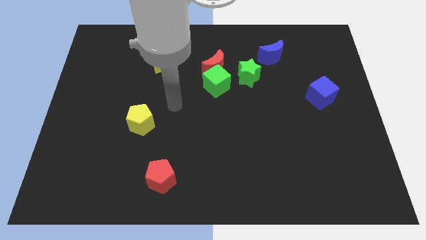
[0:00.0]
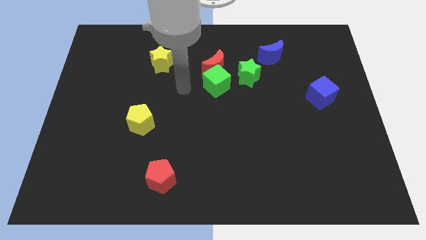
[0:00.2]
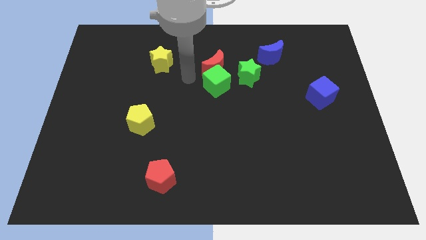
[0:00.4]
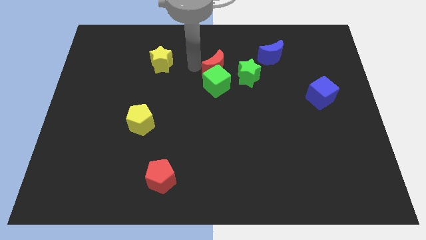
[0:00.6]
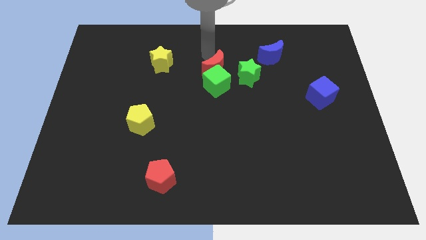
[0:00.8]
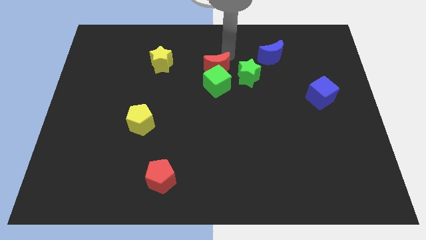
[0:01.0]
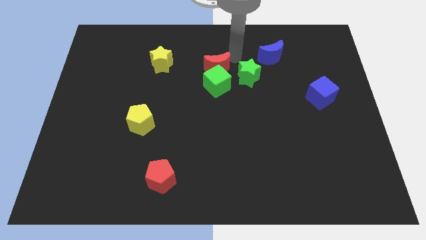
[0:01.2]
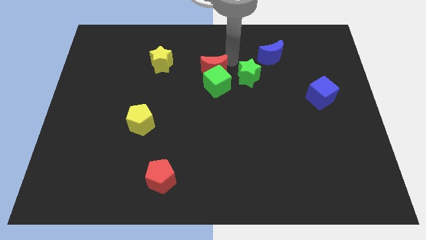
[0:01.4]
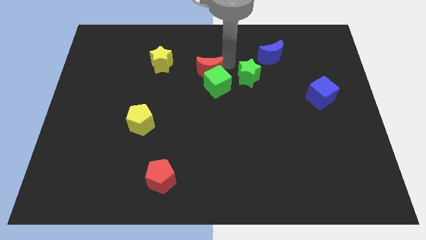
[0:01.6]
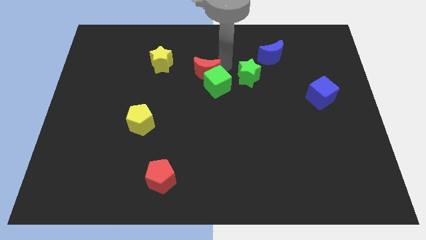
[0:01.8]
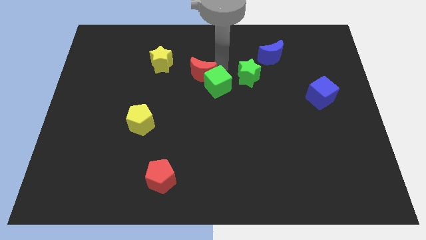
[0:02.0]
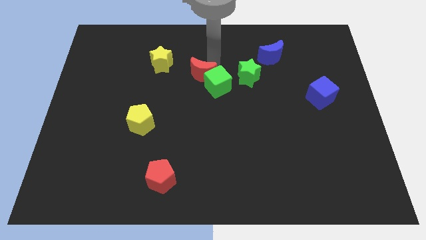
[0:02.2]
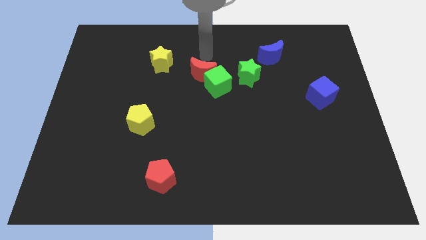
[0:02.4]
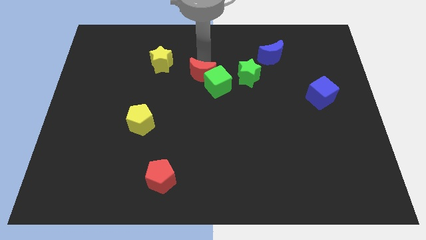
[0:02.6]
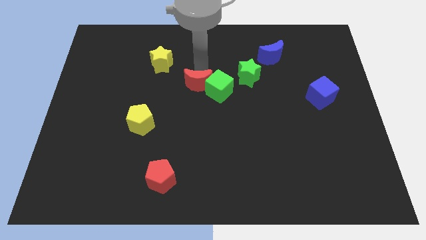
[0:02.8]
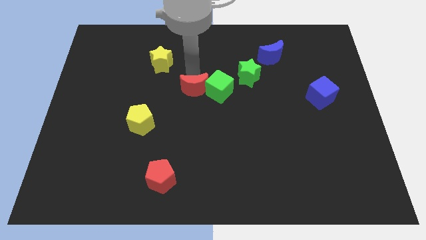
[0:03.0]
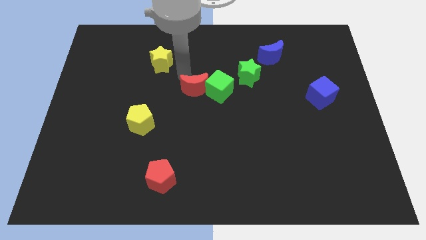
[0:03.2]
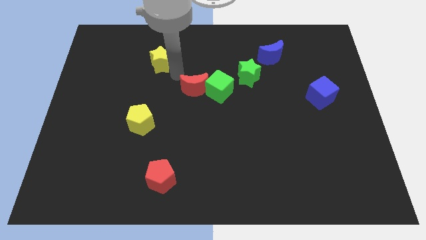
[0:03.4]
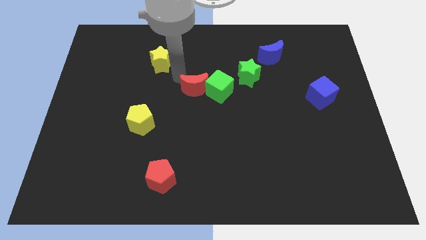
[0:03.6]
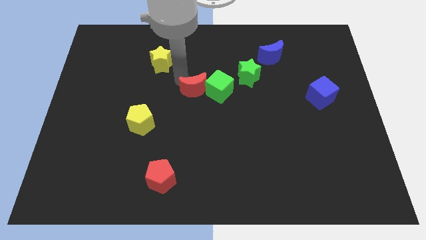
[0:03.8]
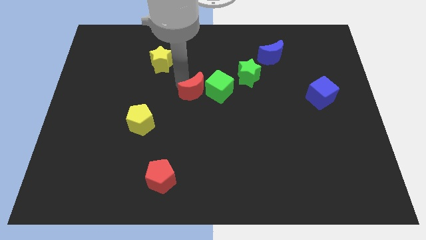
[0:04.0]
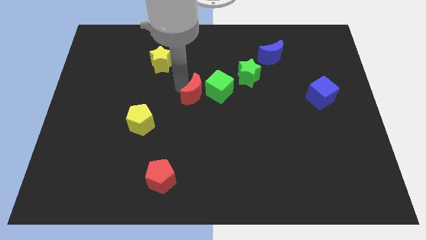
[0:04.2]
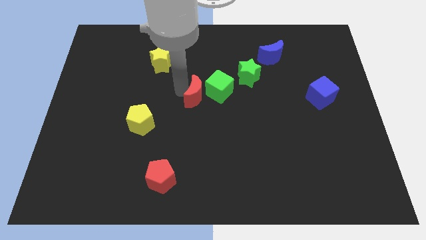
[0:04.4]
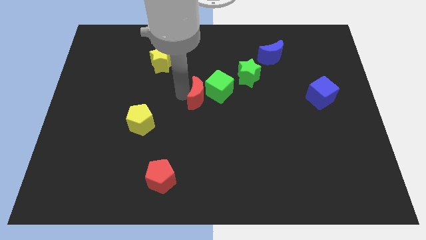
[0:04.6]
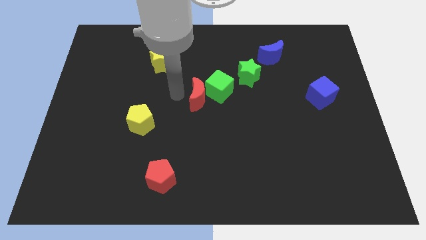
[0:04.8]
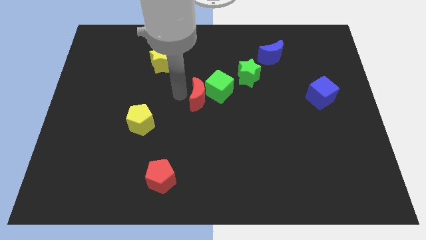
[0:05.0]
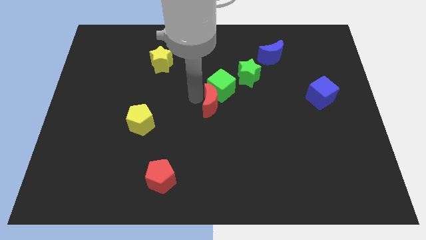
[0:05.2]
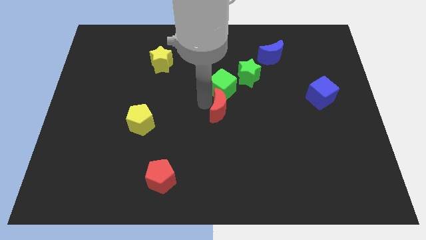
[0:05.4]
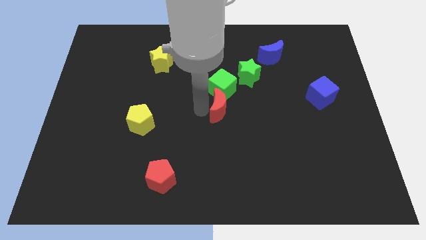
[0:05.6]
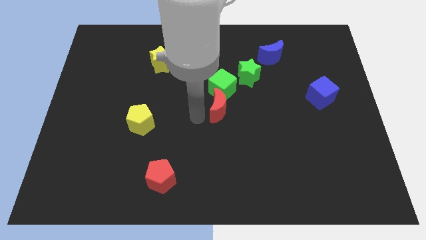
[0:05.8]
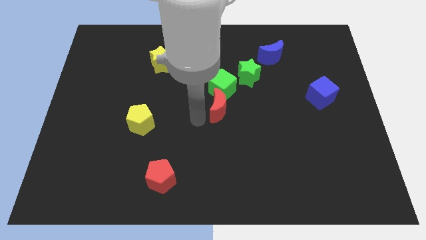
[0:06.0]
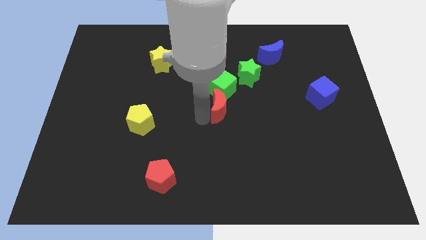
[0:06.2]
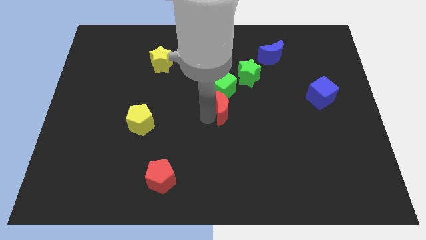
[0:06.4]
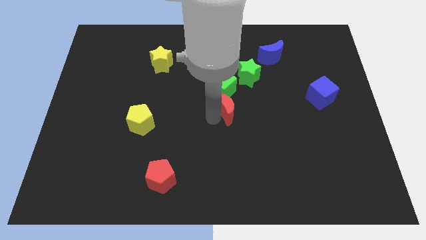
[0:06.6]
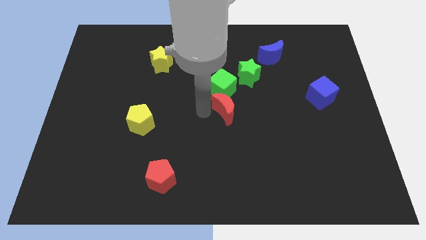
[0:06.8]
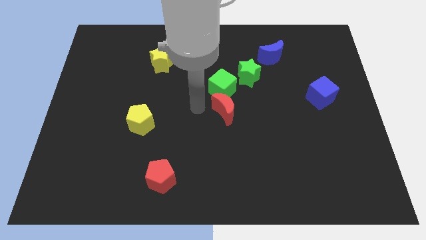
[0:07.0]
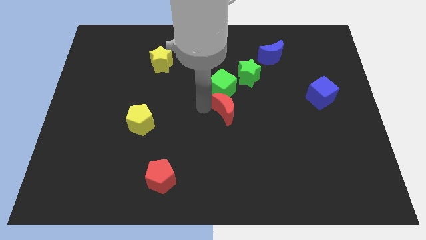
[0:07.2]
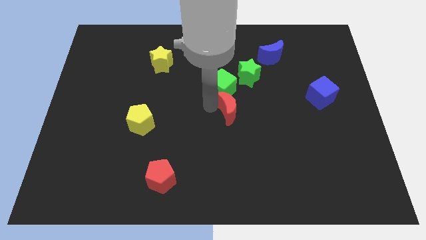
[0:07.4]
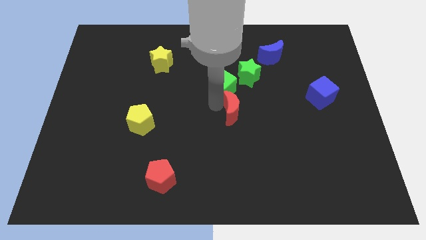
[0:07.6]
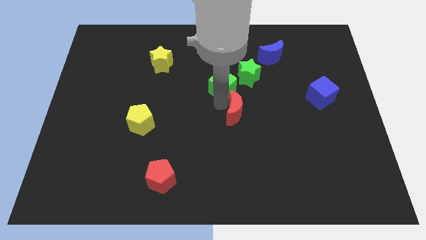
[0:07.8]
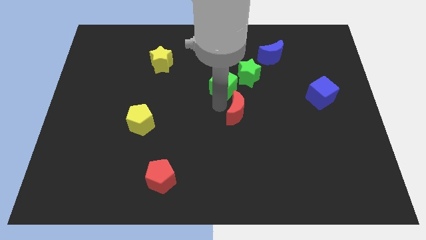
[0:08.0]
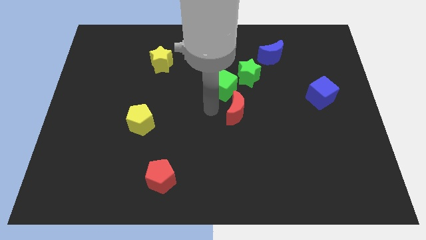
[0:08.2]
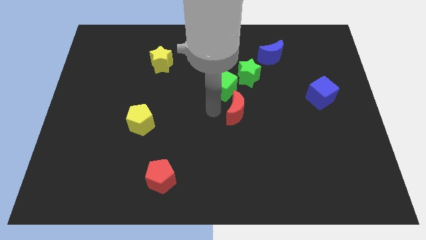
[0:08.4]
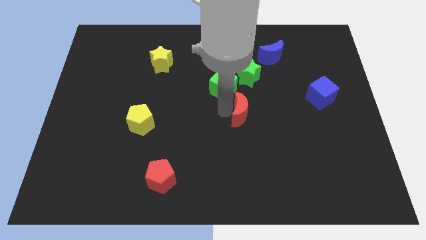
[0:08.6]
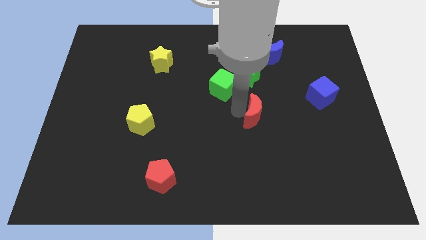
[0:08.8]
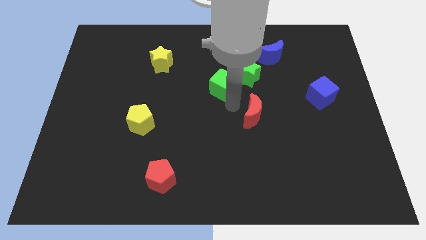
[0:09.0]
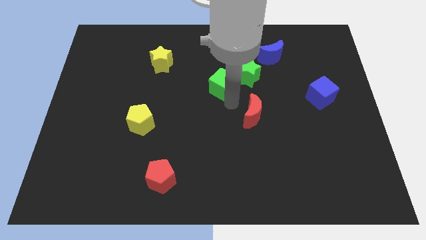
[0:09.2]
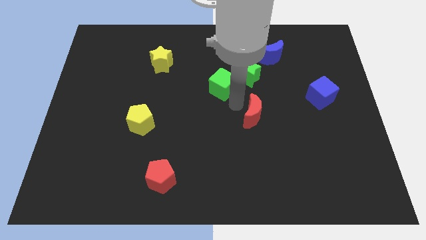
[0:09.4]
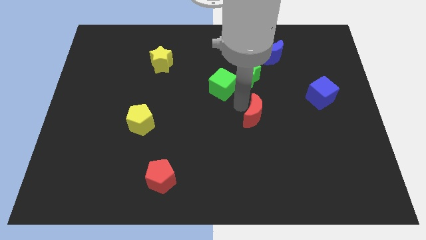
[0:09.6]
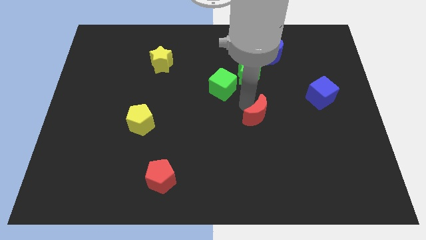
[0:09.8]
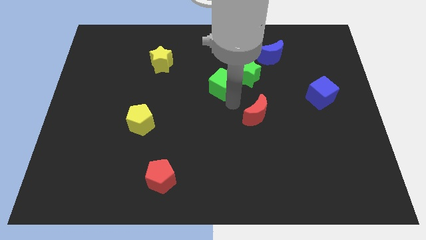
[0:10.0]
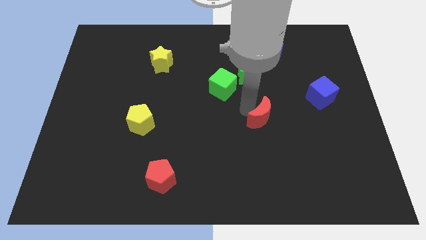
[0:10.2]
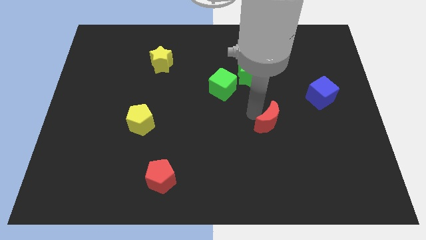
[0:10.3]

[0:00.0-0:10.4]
slide the red moon down and right

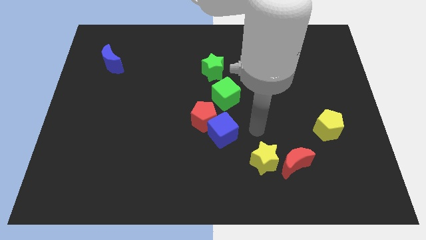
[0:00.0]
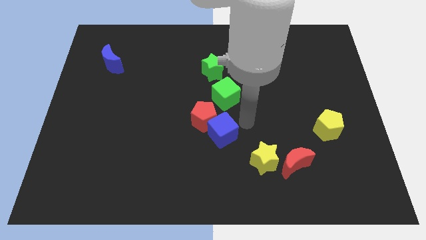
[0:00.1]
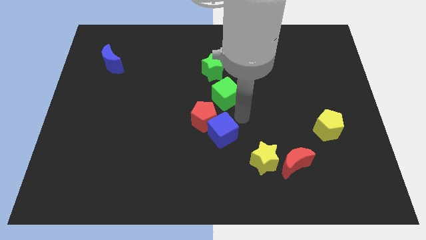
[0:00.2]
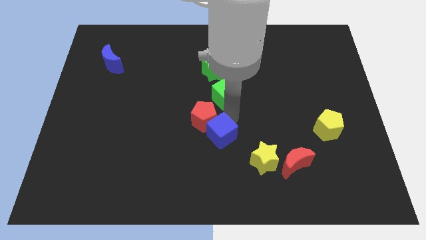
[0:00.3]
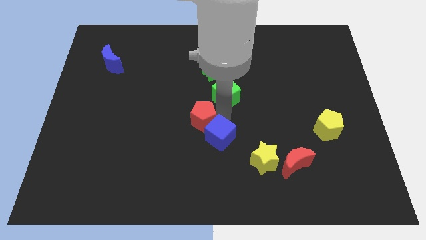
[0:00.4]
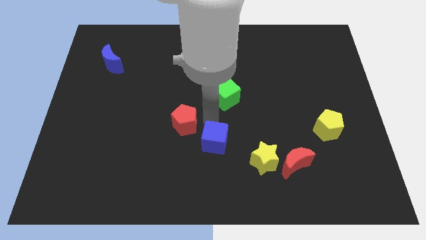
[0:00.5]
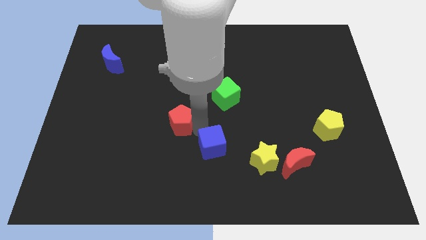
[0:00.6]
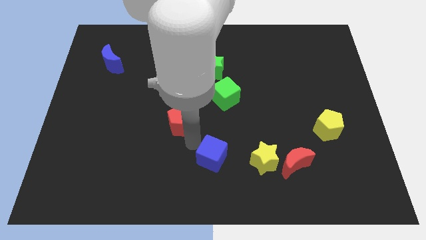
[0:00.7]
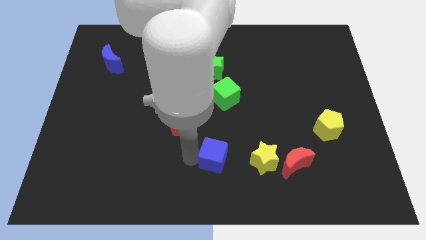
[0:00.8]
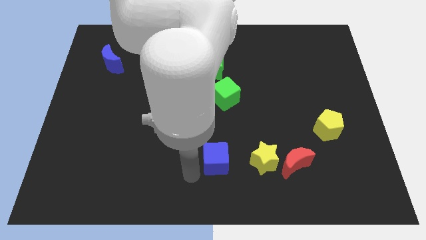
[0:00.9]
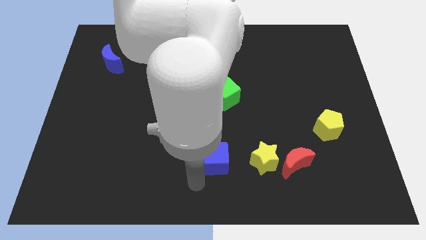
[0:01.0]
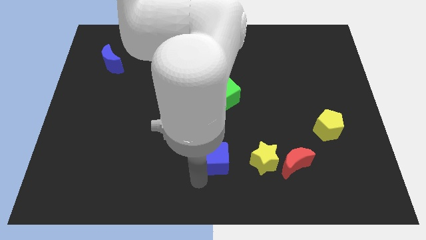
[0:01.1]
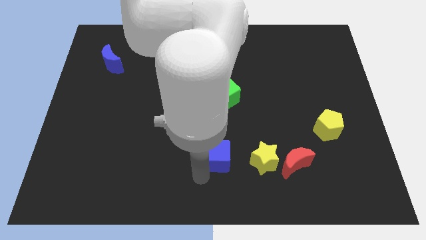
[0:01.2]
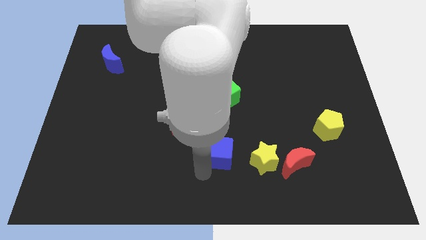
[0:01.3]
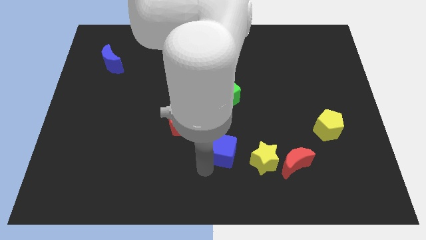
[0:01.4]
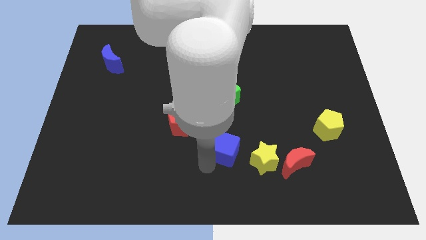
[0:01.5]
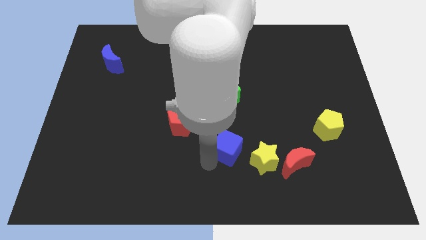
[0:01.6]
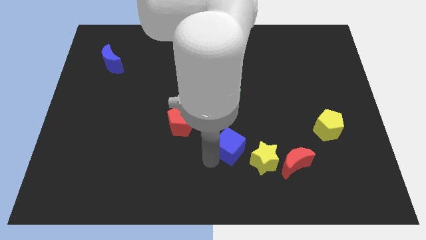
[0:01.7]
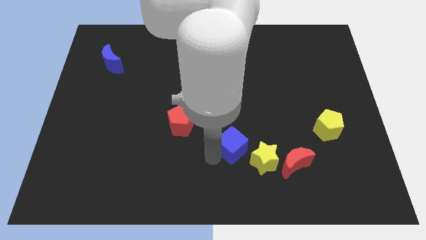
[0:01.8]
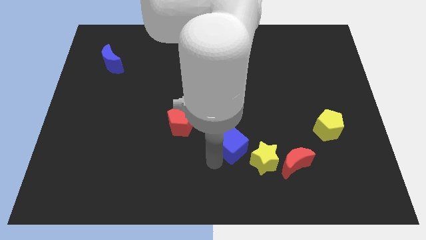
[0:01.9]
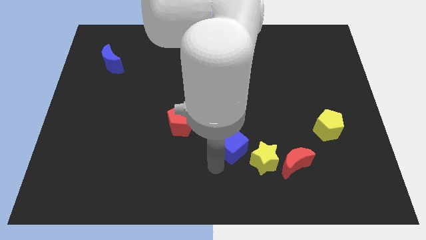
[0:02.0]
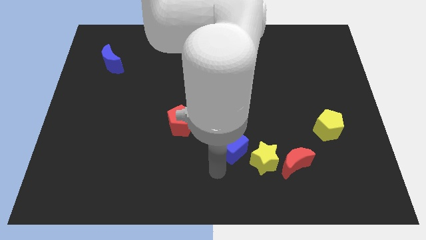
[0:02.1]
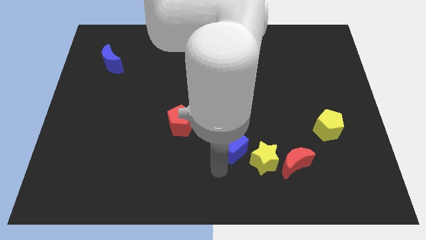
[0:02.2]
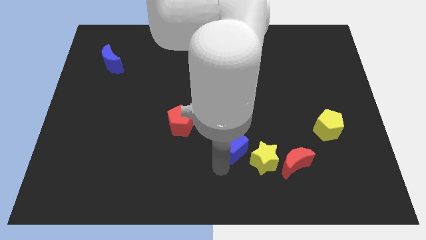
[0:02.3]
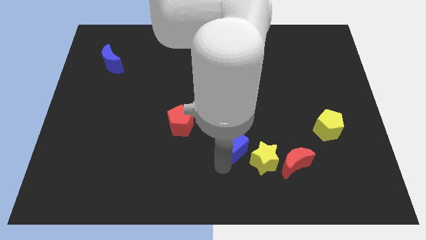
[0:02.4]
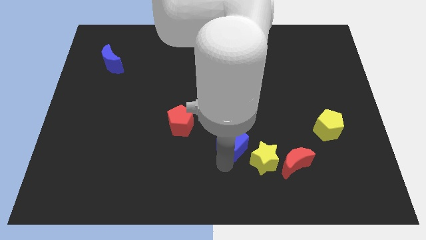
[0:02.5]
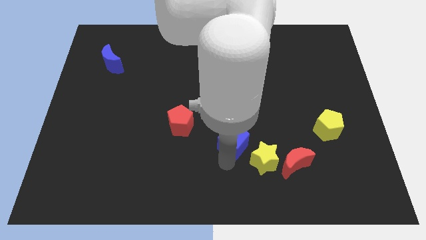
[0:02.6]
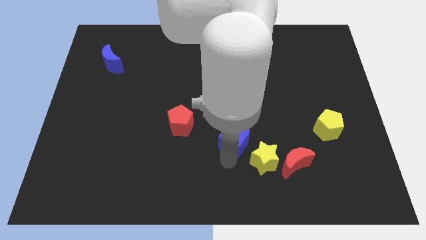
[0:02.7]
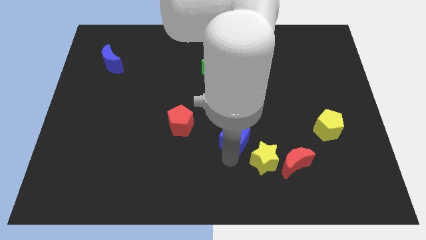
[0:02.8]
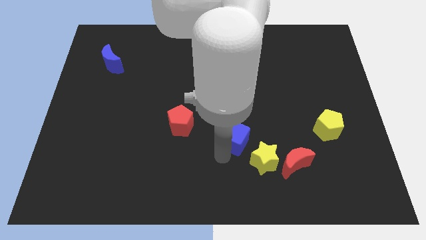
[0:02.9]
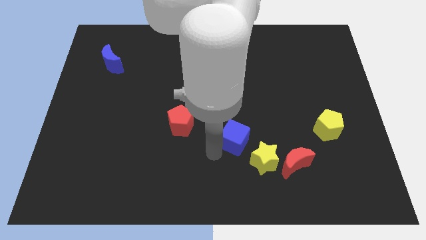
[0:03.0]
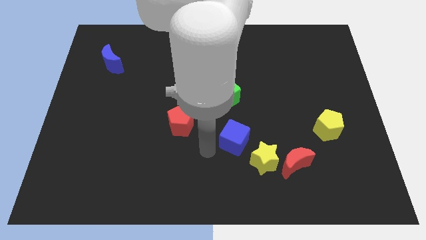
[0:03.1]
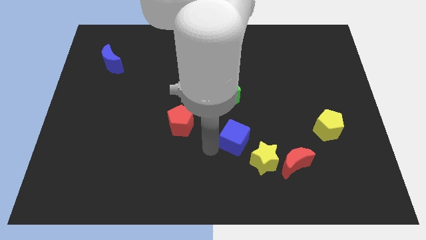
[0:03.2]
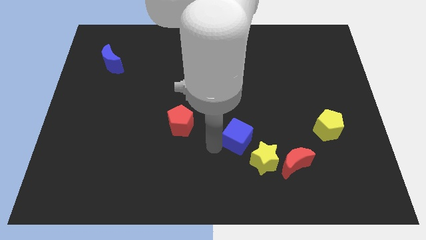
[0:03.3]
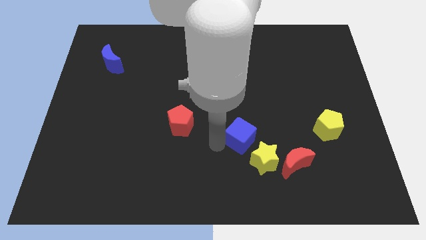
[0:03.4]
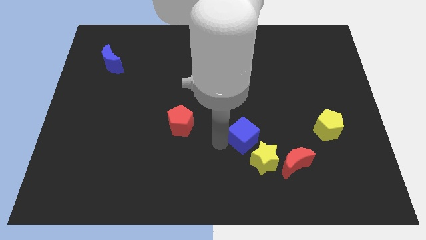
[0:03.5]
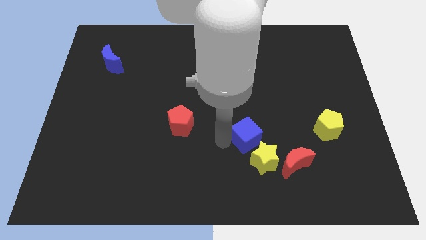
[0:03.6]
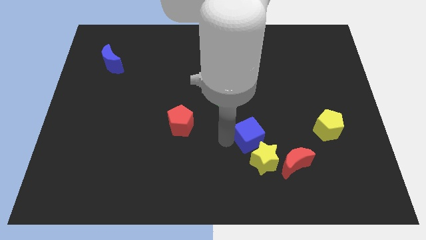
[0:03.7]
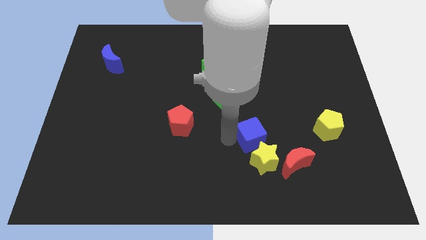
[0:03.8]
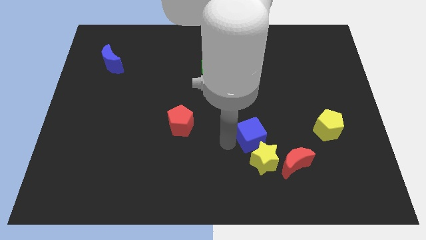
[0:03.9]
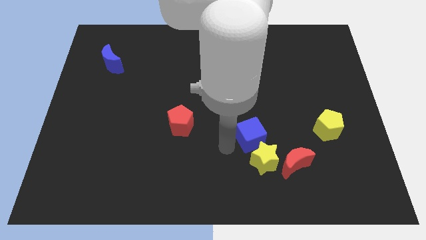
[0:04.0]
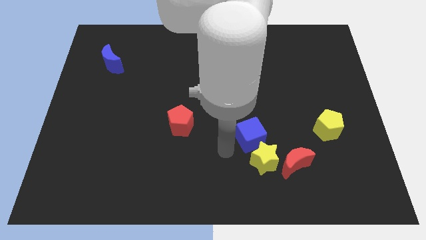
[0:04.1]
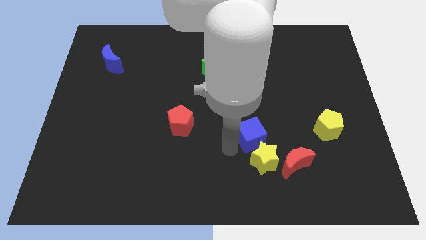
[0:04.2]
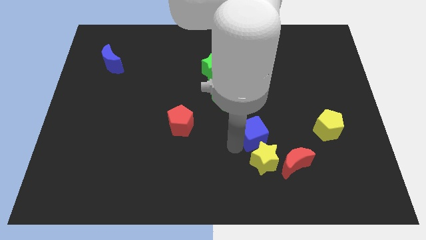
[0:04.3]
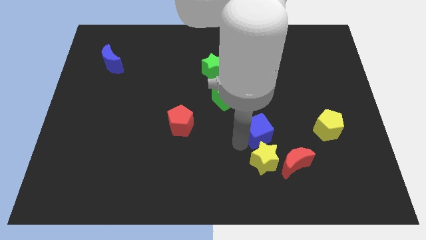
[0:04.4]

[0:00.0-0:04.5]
slightly move the blue cube to the right
